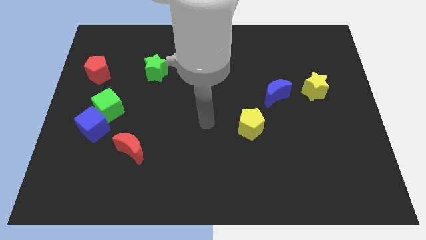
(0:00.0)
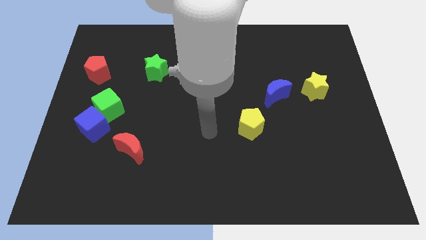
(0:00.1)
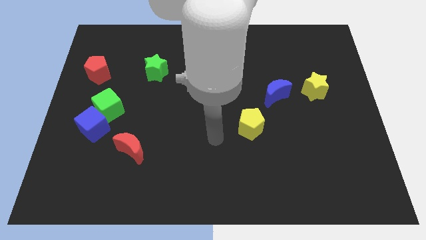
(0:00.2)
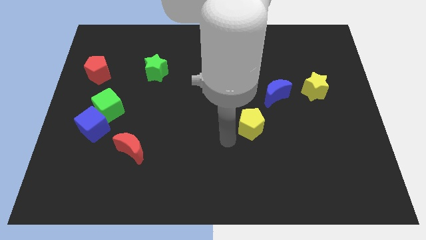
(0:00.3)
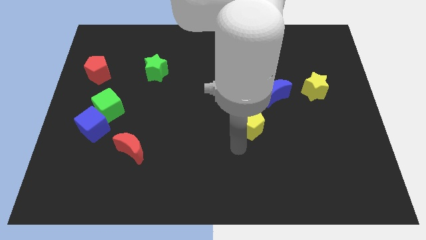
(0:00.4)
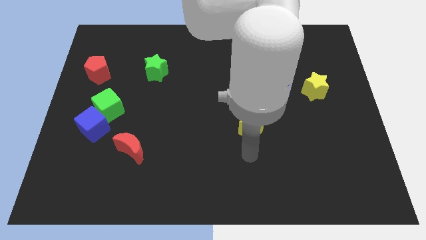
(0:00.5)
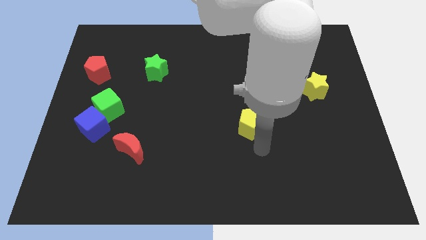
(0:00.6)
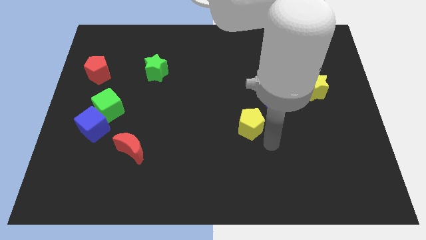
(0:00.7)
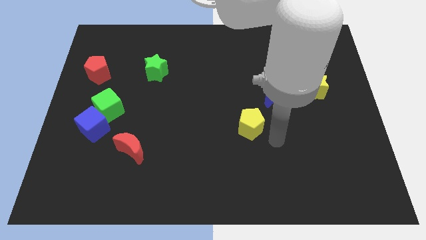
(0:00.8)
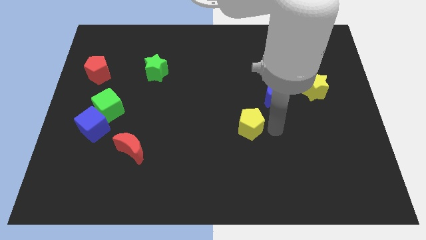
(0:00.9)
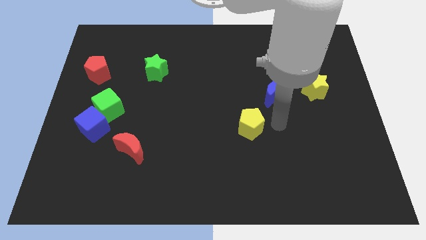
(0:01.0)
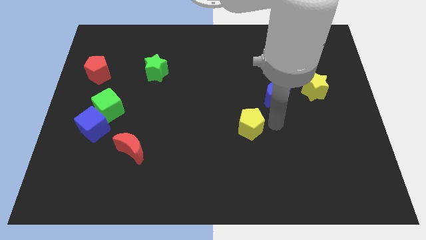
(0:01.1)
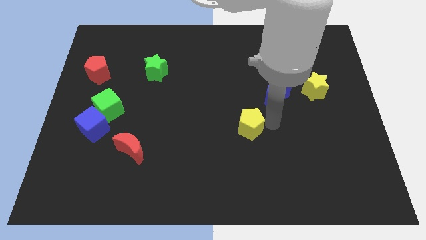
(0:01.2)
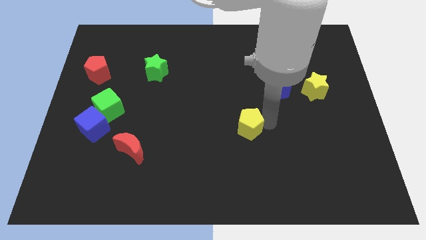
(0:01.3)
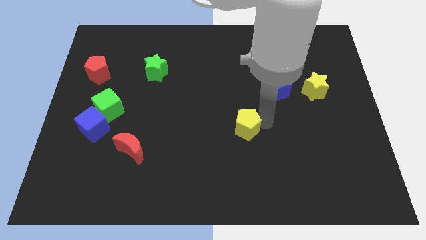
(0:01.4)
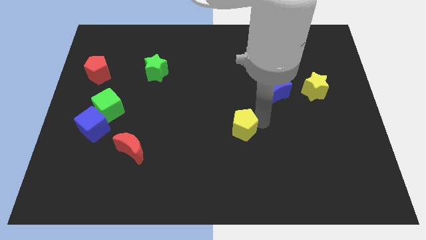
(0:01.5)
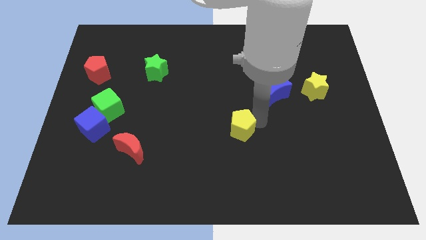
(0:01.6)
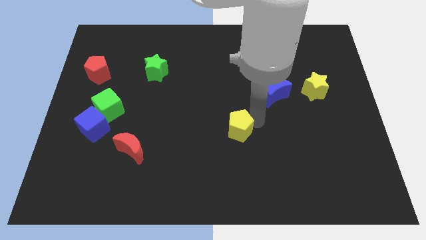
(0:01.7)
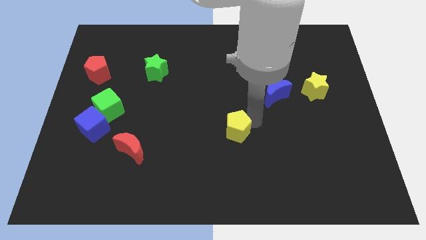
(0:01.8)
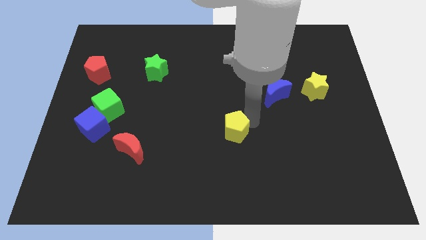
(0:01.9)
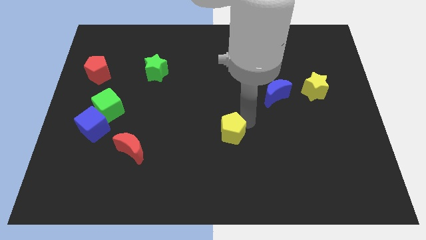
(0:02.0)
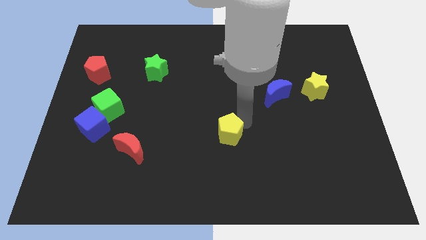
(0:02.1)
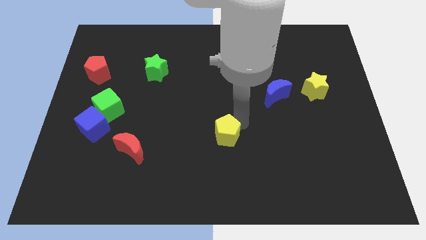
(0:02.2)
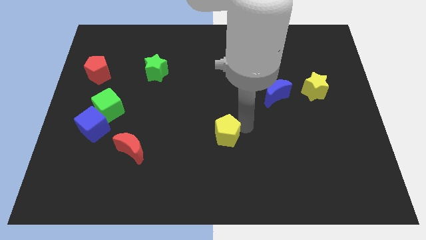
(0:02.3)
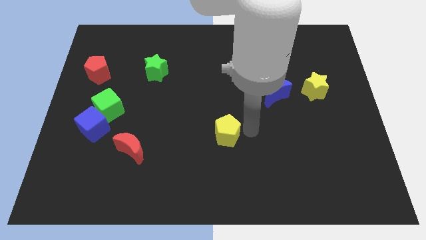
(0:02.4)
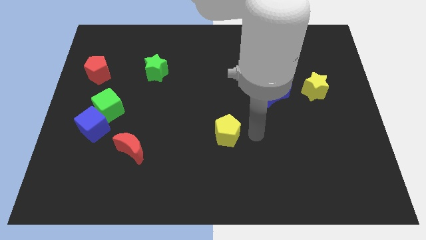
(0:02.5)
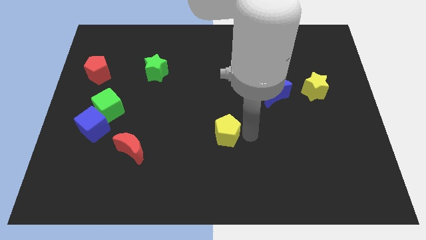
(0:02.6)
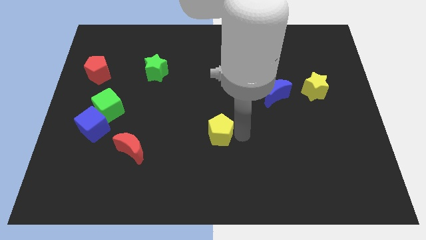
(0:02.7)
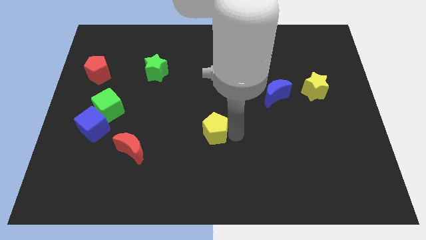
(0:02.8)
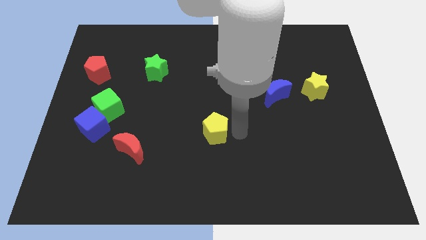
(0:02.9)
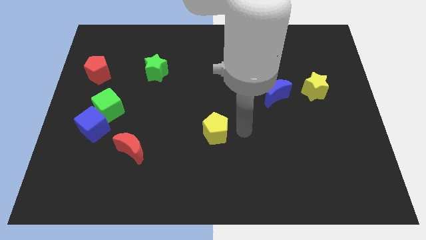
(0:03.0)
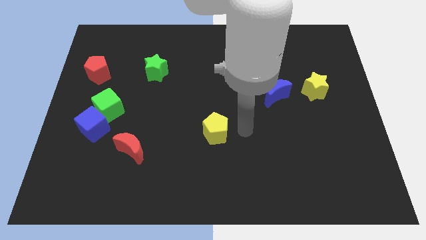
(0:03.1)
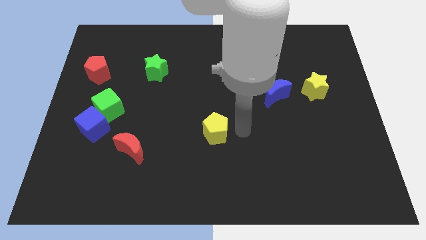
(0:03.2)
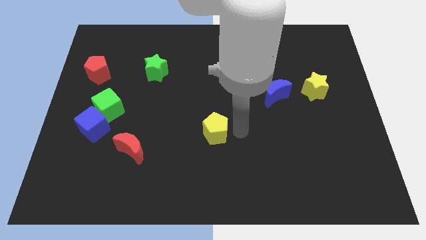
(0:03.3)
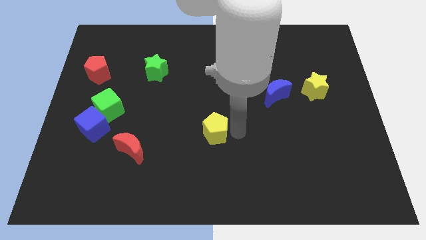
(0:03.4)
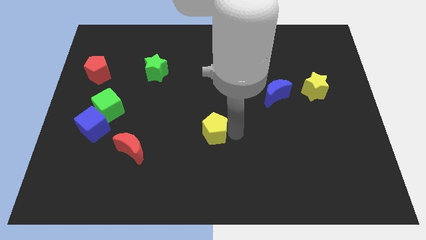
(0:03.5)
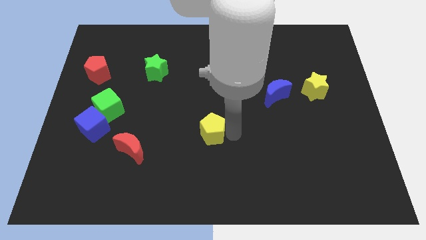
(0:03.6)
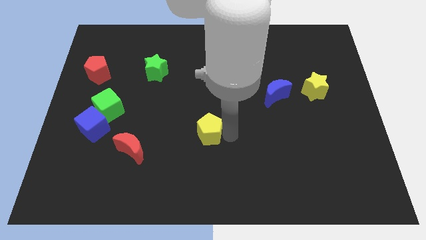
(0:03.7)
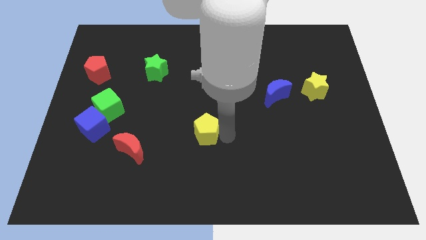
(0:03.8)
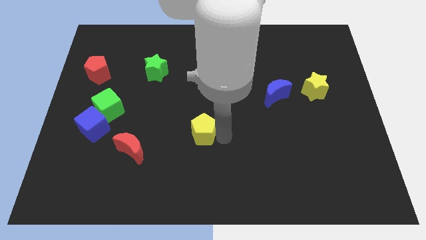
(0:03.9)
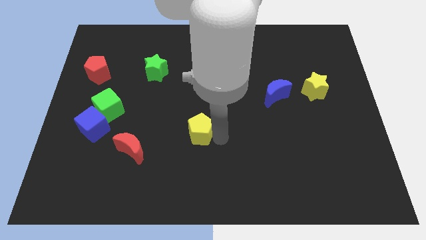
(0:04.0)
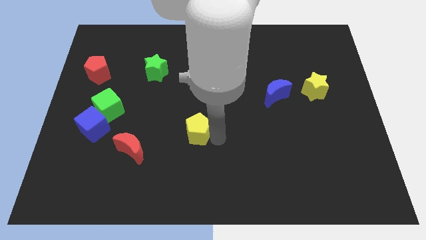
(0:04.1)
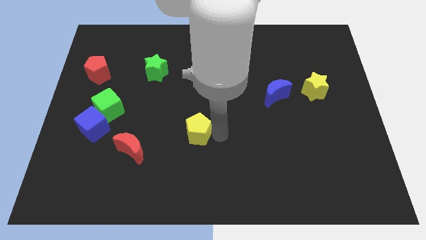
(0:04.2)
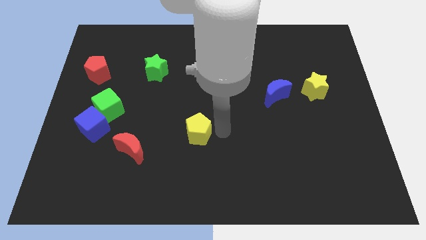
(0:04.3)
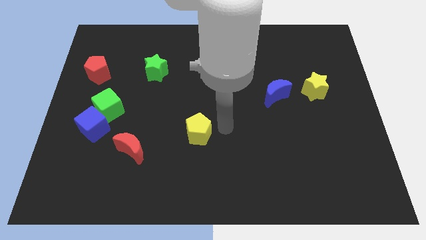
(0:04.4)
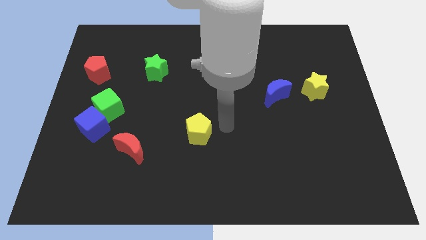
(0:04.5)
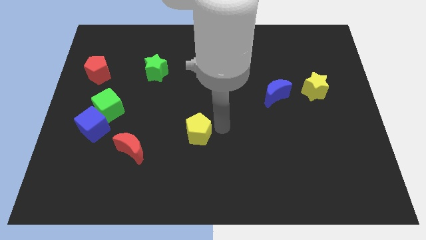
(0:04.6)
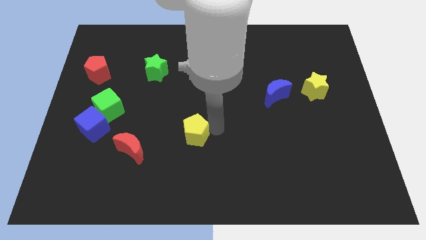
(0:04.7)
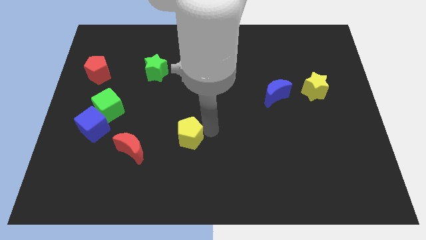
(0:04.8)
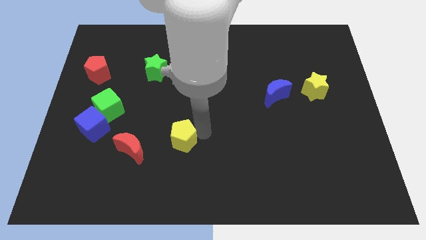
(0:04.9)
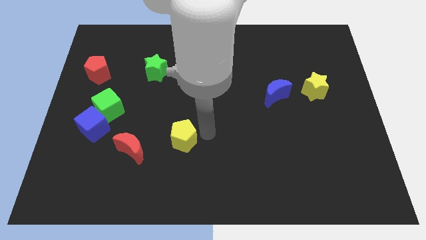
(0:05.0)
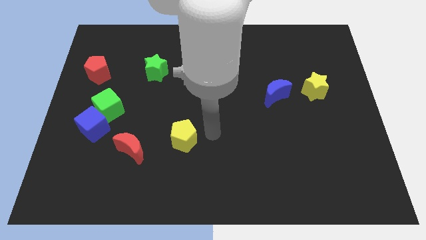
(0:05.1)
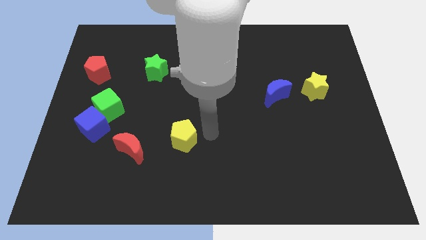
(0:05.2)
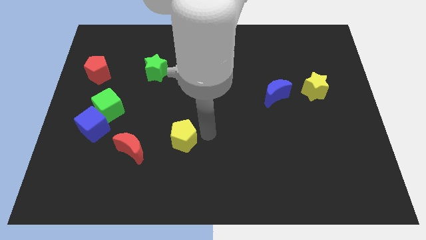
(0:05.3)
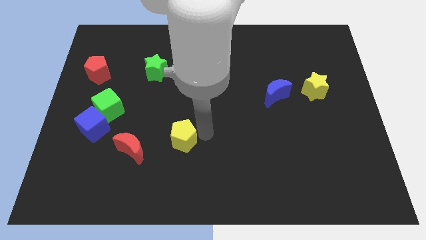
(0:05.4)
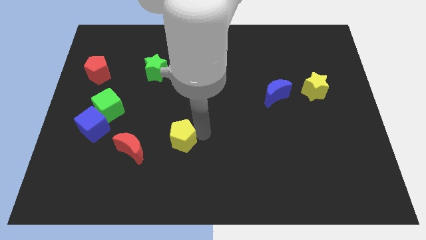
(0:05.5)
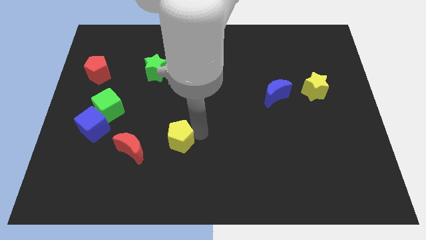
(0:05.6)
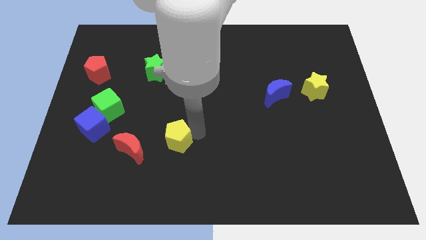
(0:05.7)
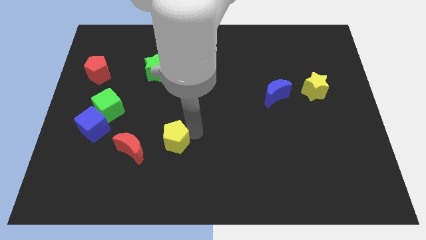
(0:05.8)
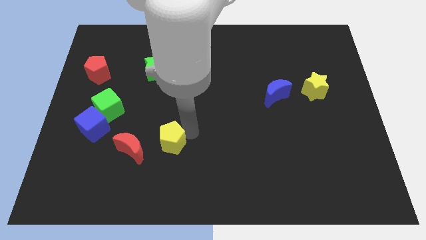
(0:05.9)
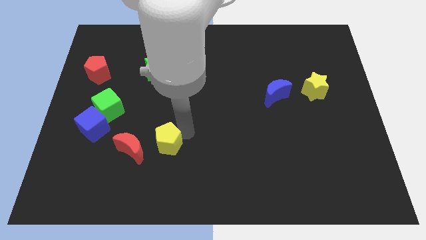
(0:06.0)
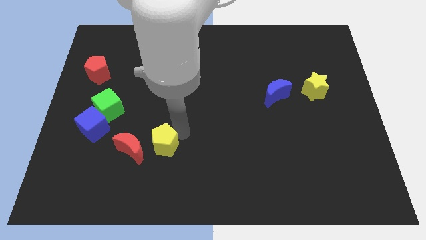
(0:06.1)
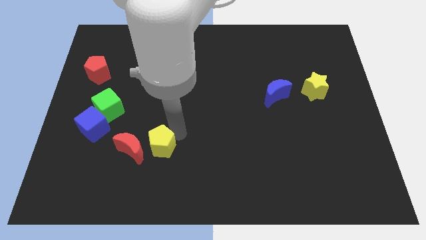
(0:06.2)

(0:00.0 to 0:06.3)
push the yellow pentagon to the red moon

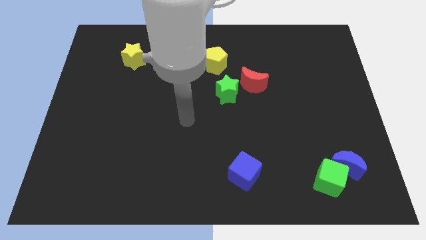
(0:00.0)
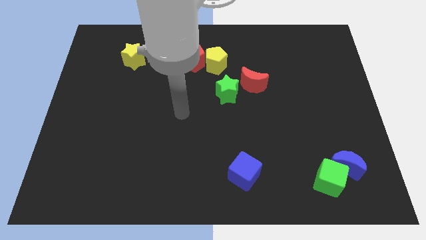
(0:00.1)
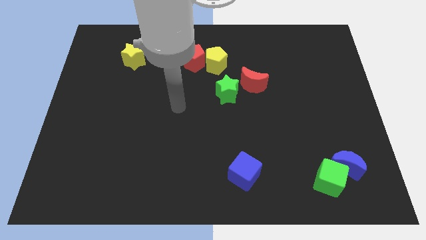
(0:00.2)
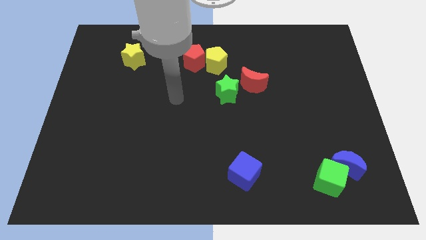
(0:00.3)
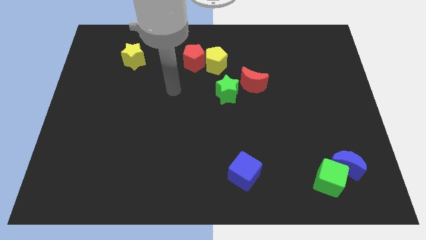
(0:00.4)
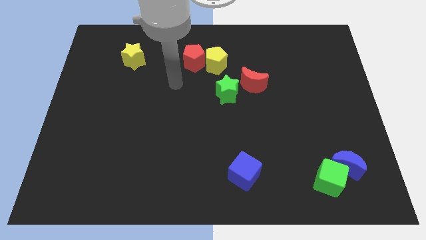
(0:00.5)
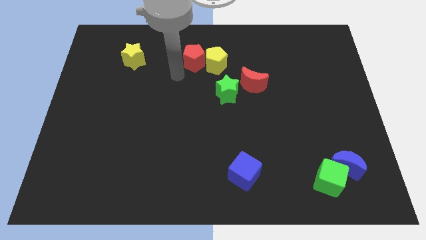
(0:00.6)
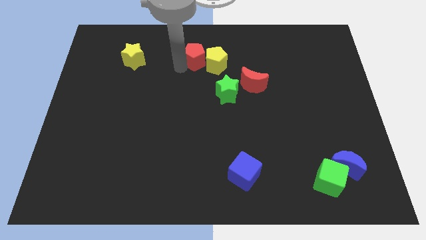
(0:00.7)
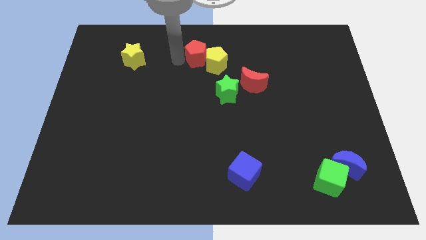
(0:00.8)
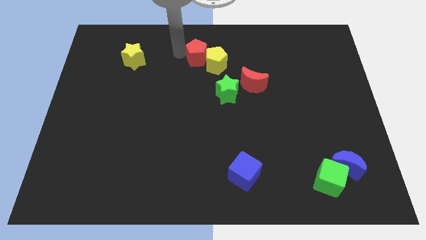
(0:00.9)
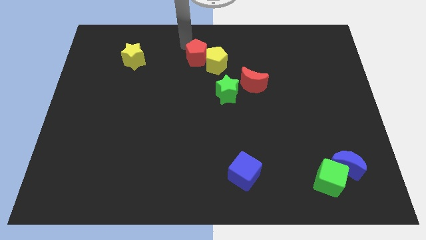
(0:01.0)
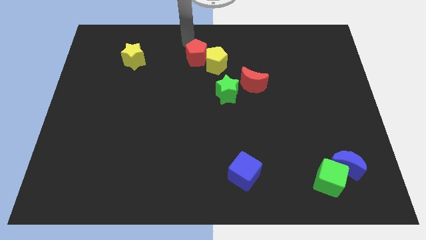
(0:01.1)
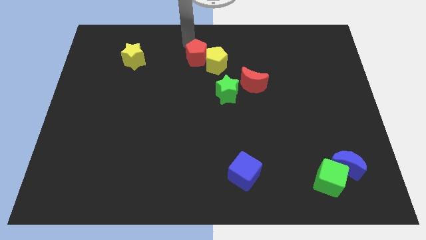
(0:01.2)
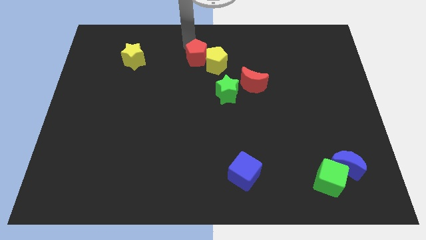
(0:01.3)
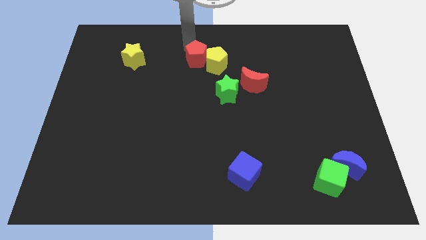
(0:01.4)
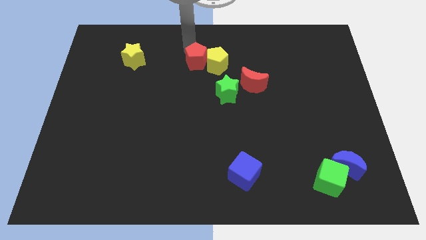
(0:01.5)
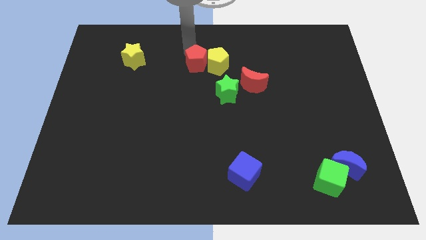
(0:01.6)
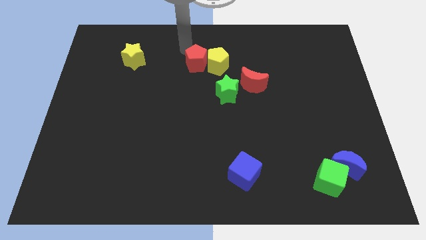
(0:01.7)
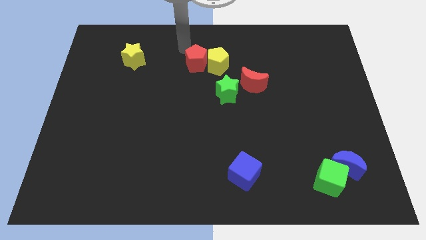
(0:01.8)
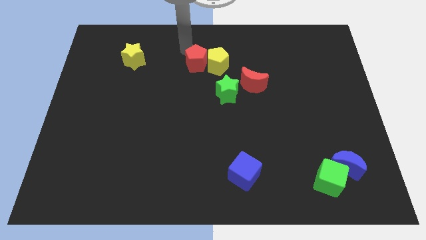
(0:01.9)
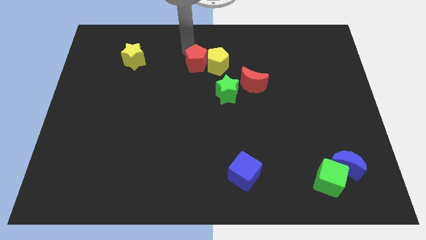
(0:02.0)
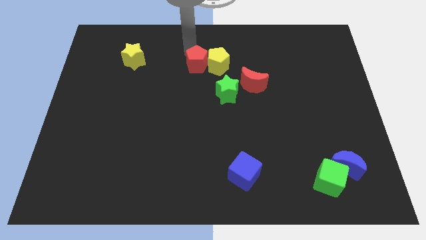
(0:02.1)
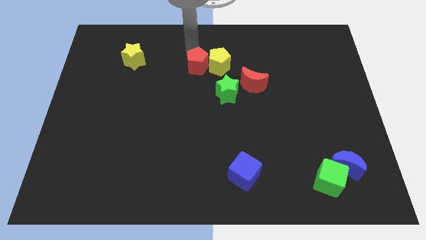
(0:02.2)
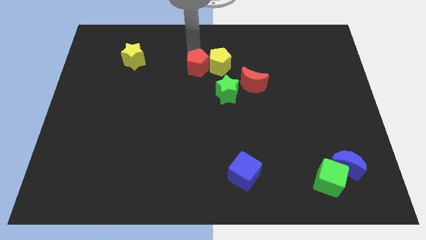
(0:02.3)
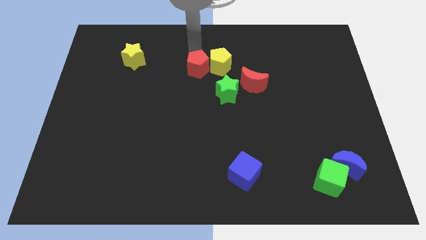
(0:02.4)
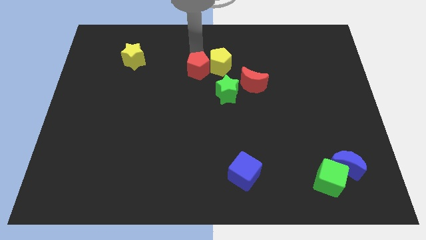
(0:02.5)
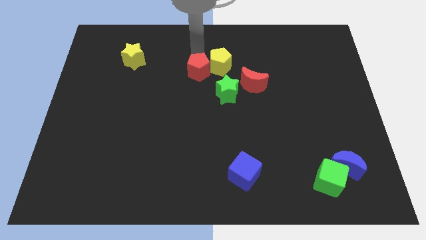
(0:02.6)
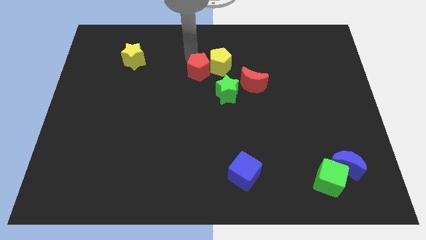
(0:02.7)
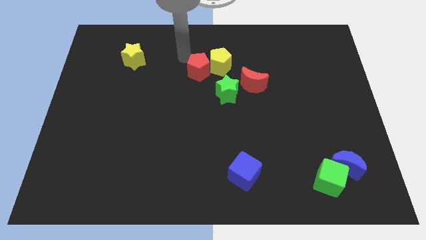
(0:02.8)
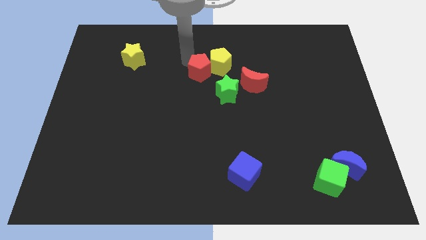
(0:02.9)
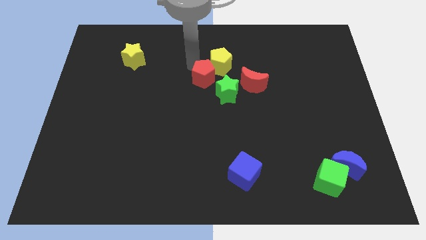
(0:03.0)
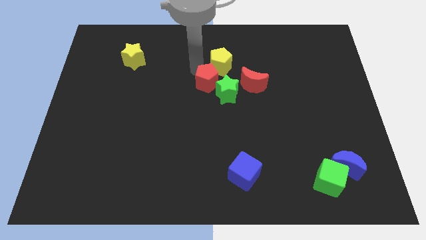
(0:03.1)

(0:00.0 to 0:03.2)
move the red pentagon to the green star
